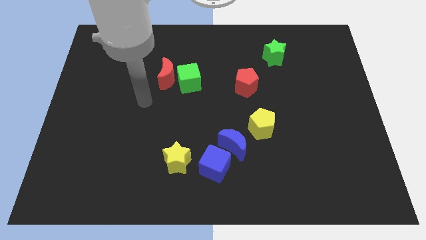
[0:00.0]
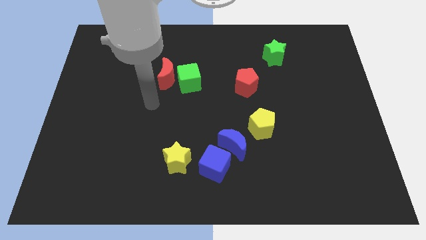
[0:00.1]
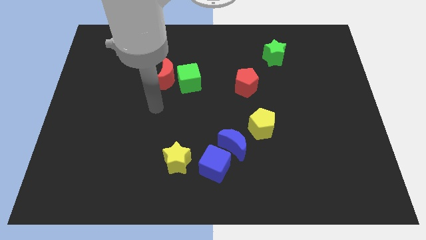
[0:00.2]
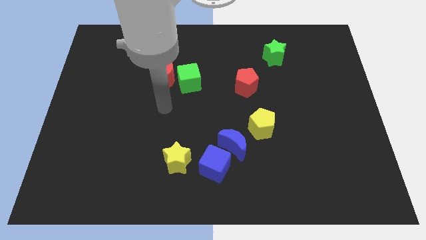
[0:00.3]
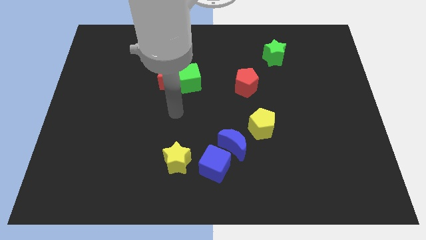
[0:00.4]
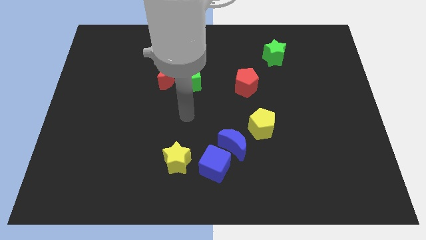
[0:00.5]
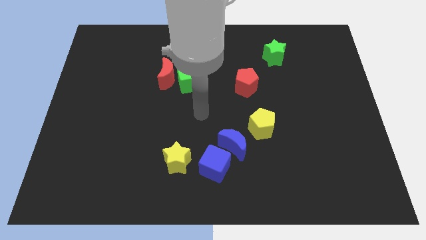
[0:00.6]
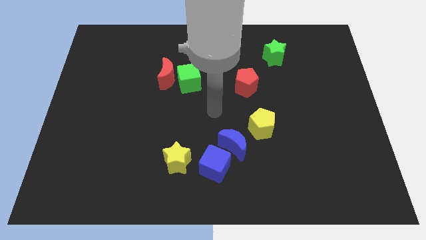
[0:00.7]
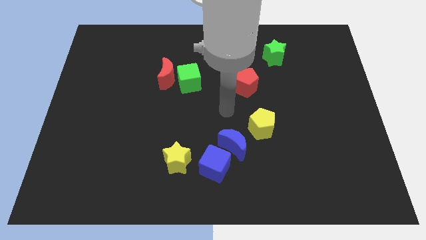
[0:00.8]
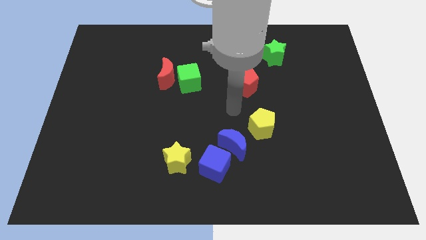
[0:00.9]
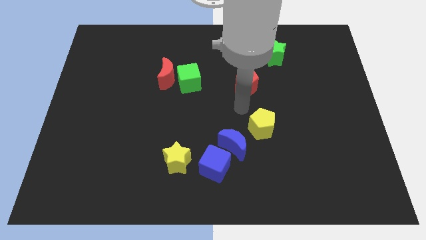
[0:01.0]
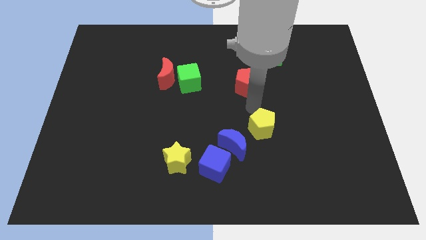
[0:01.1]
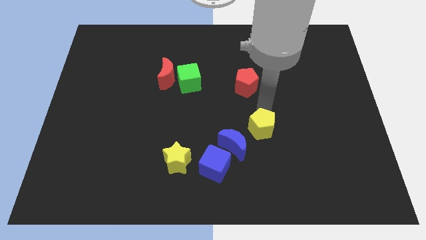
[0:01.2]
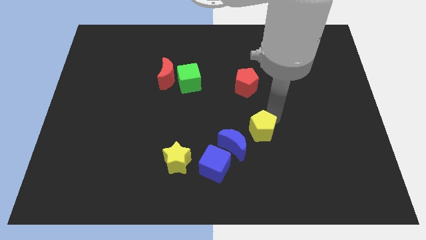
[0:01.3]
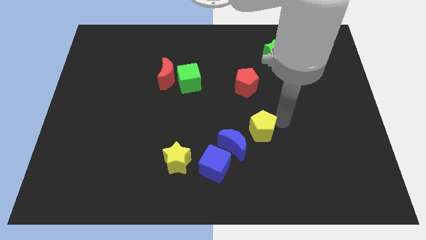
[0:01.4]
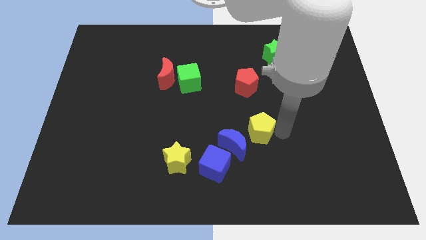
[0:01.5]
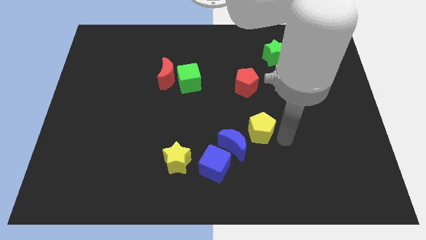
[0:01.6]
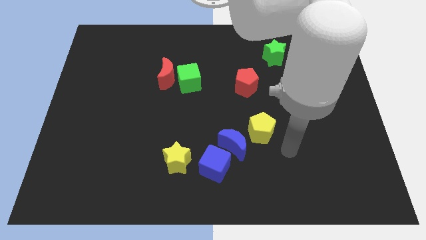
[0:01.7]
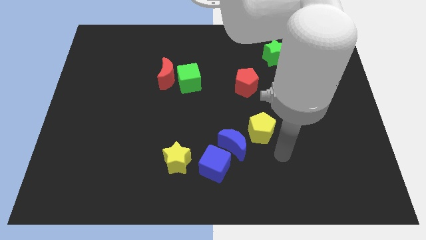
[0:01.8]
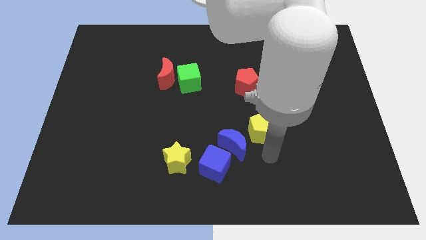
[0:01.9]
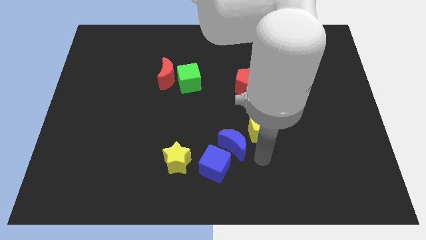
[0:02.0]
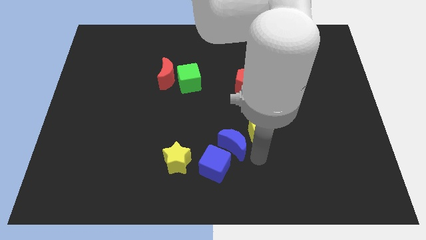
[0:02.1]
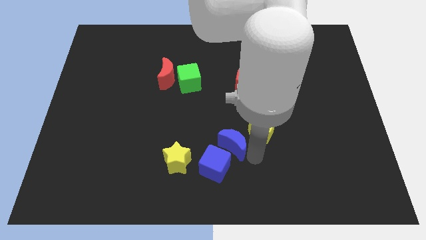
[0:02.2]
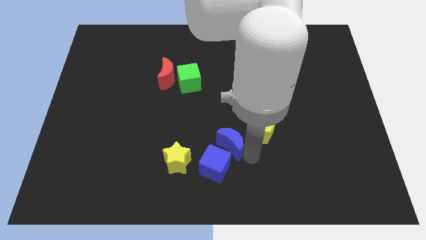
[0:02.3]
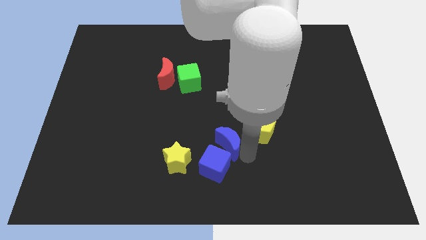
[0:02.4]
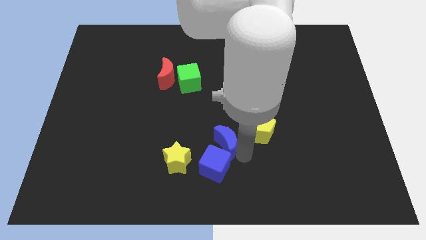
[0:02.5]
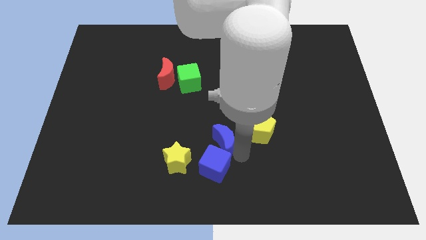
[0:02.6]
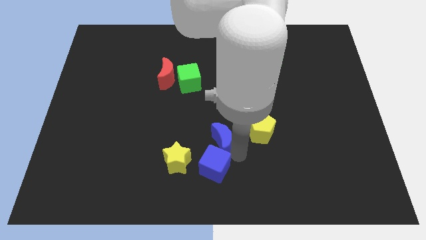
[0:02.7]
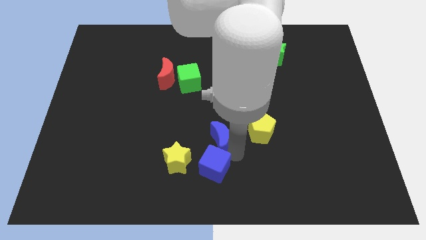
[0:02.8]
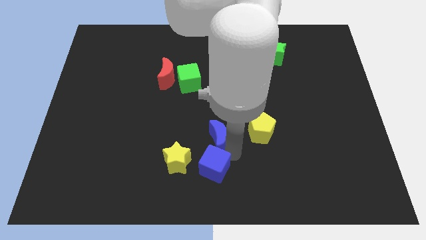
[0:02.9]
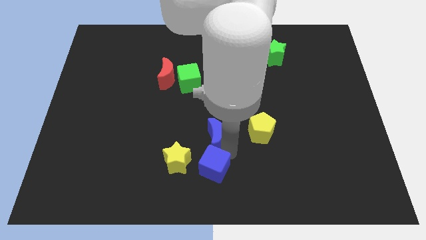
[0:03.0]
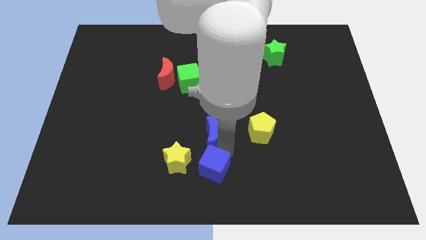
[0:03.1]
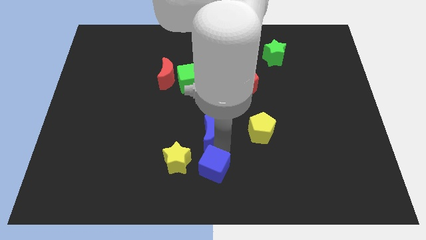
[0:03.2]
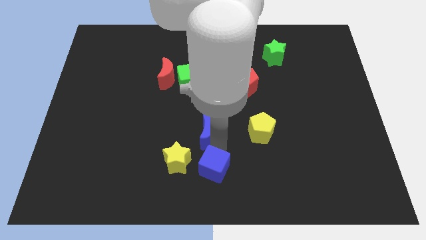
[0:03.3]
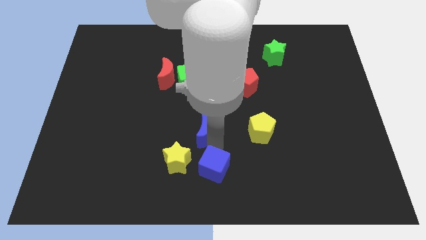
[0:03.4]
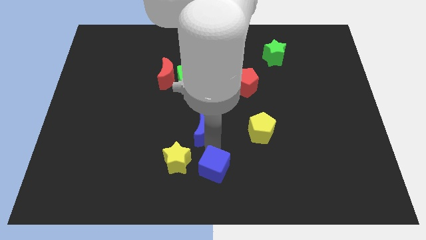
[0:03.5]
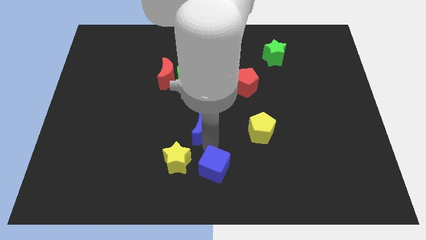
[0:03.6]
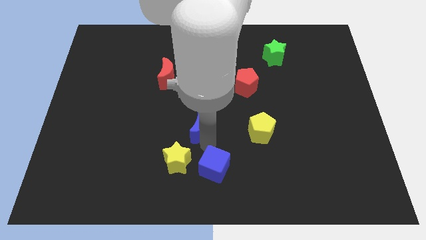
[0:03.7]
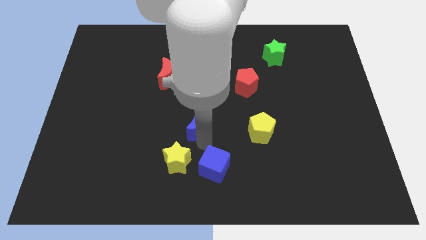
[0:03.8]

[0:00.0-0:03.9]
push the blue moon a bit to the left

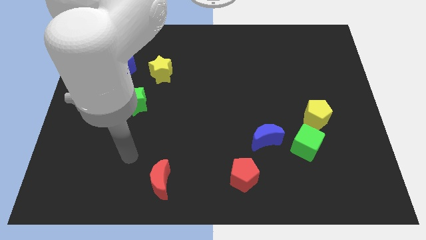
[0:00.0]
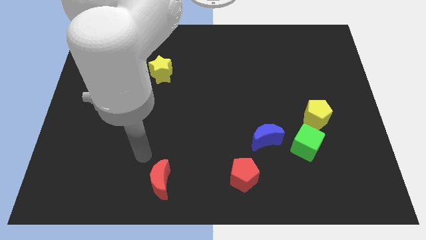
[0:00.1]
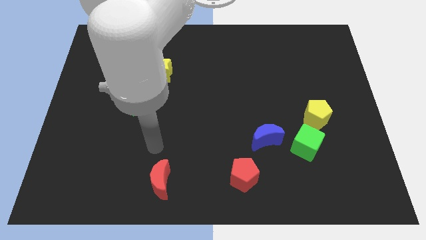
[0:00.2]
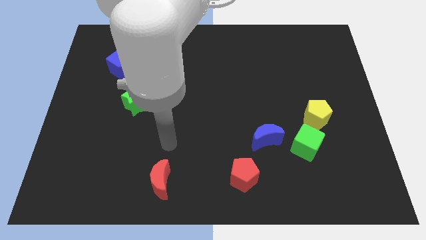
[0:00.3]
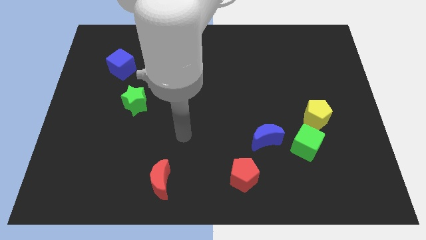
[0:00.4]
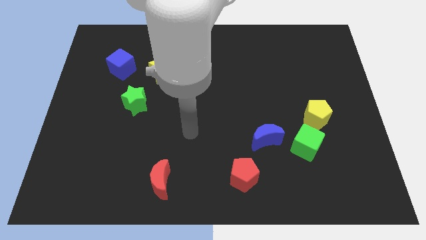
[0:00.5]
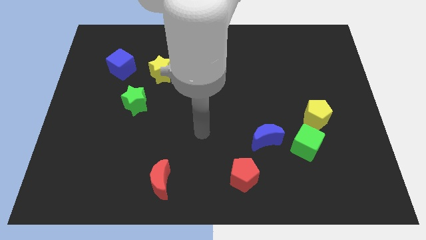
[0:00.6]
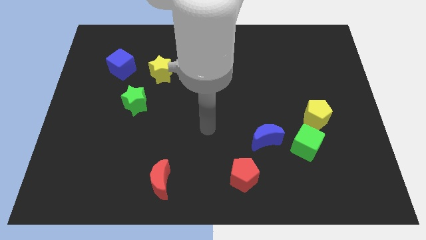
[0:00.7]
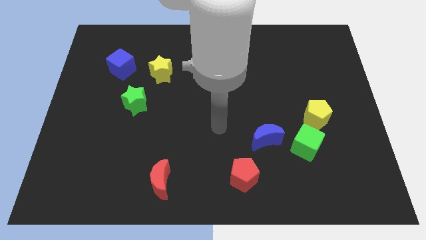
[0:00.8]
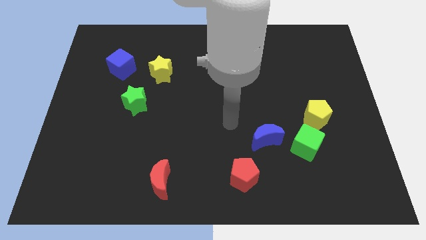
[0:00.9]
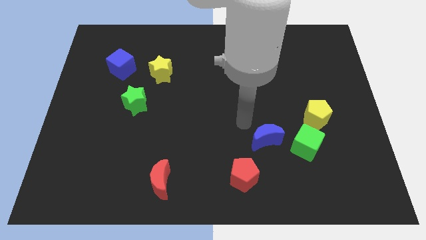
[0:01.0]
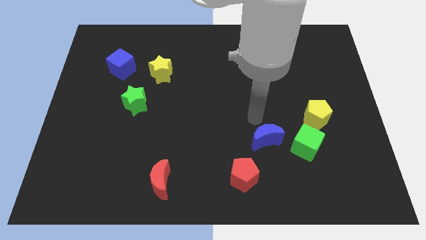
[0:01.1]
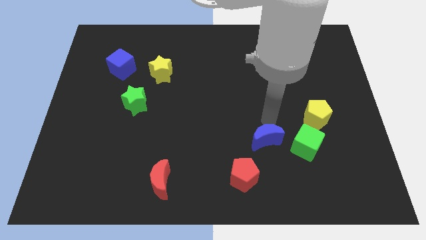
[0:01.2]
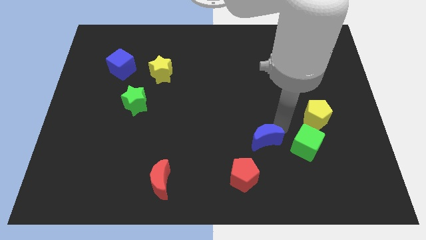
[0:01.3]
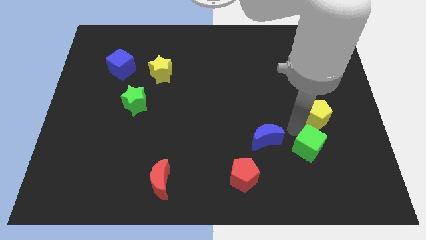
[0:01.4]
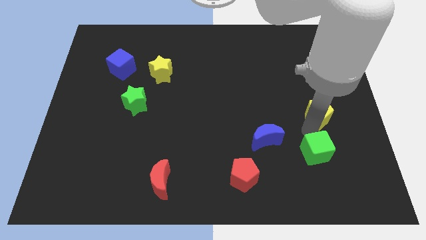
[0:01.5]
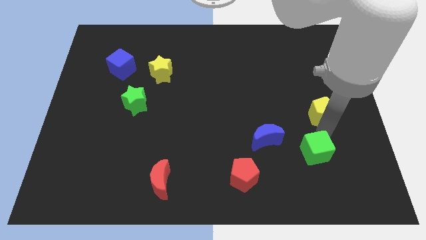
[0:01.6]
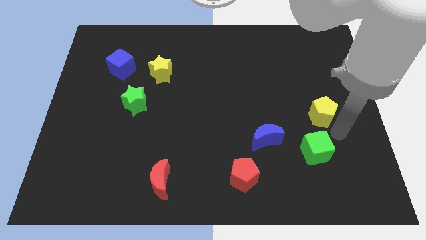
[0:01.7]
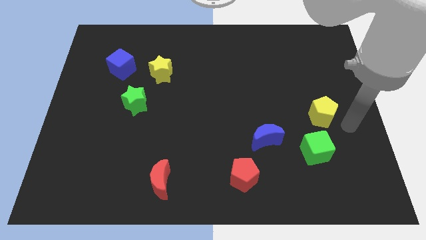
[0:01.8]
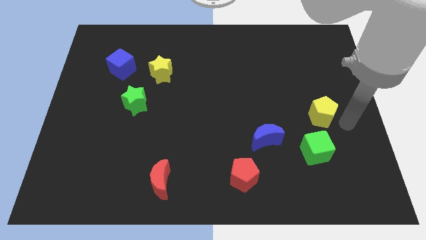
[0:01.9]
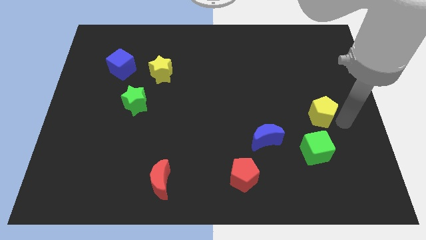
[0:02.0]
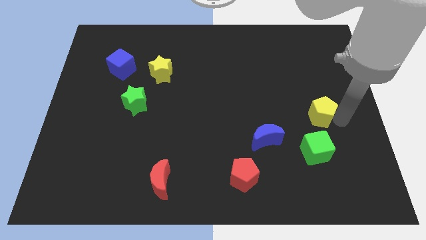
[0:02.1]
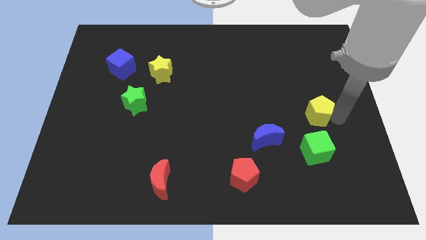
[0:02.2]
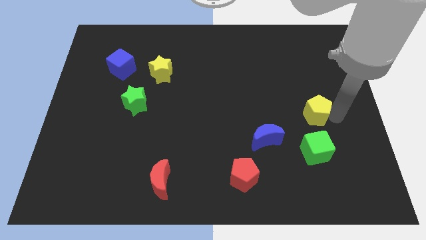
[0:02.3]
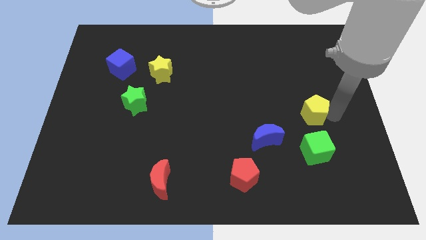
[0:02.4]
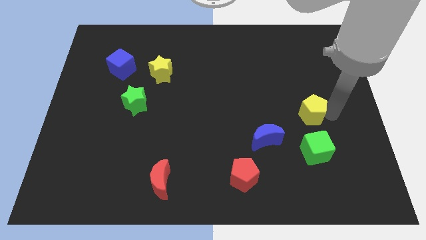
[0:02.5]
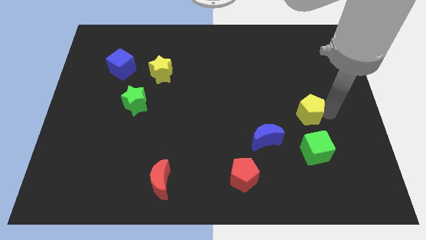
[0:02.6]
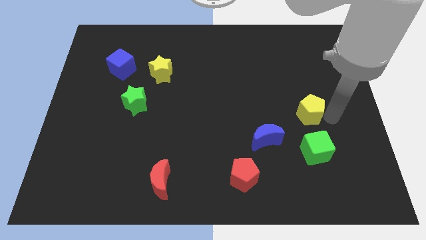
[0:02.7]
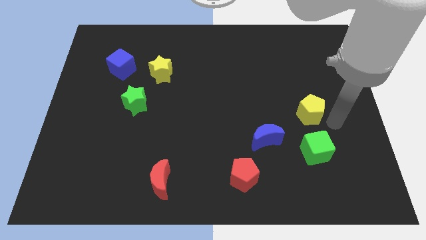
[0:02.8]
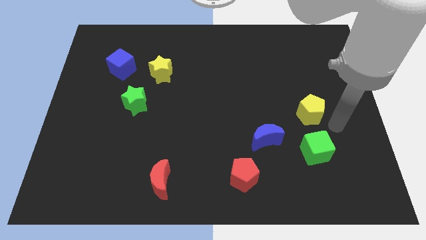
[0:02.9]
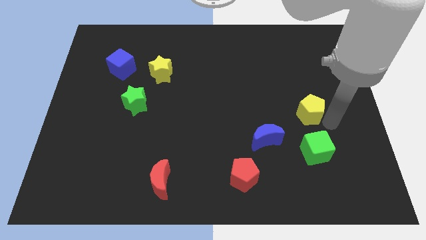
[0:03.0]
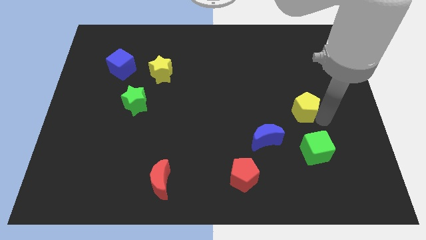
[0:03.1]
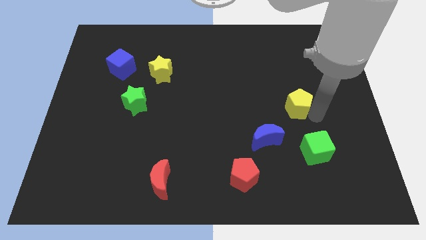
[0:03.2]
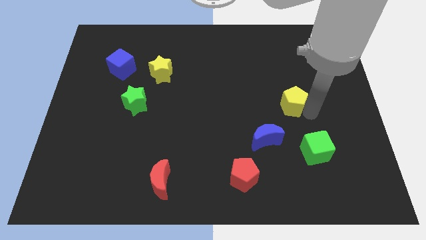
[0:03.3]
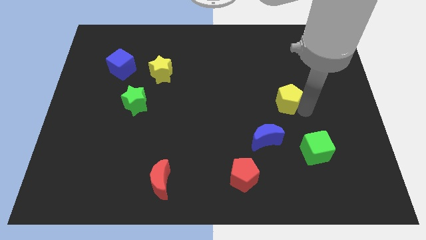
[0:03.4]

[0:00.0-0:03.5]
push the yellow pentagon slightly upwards and then left

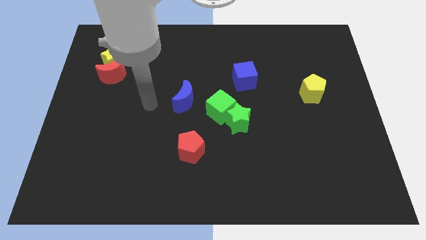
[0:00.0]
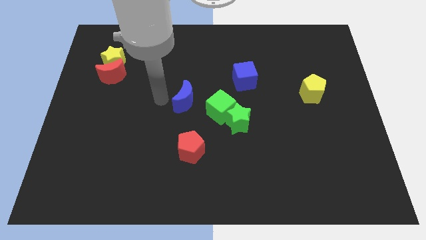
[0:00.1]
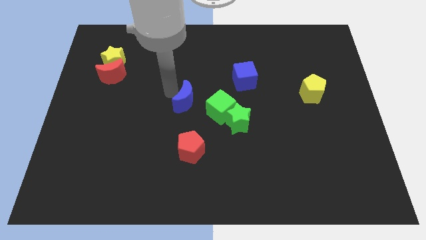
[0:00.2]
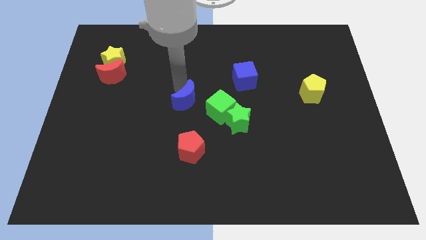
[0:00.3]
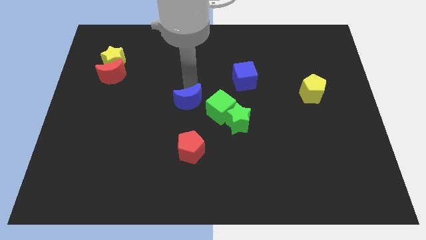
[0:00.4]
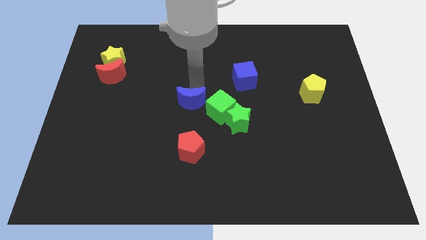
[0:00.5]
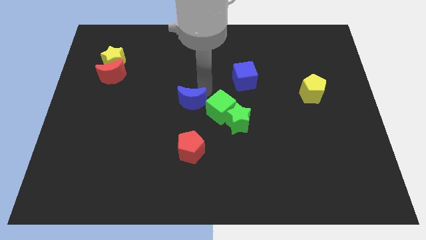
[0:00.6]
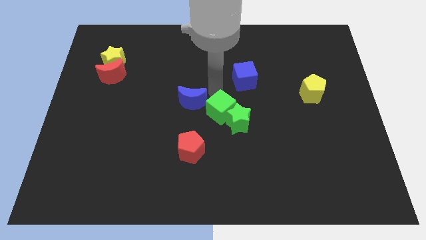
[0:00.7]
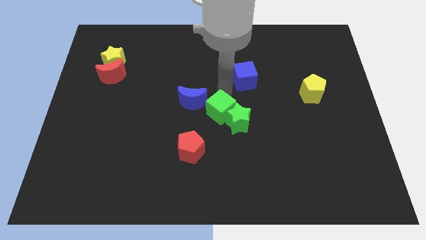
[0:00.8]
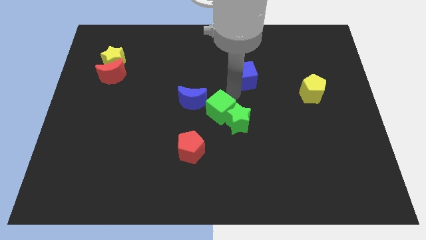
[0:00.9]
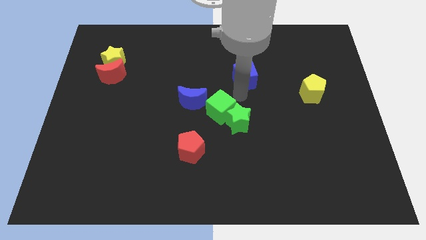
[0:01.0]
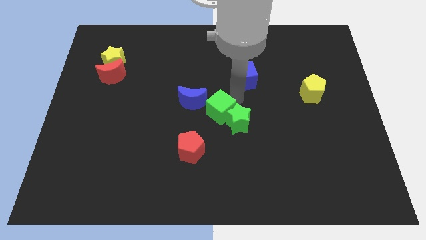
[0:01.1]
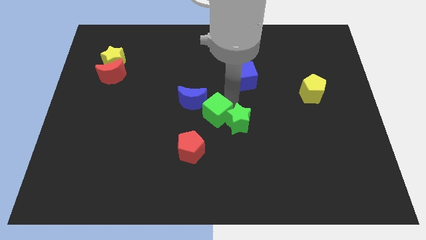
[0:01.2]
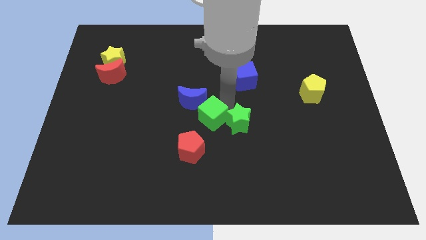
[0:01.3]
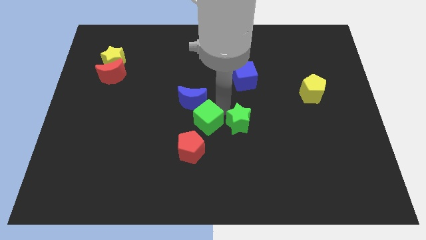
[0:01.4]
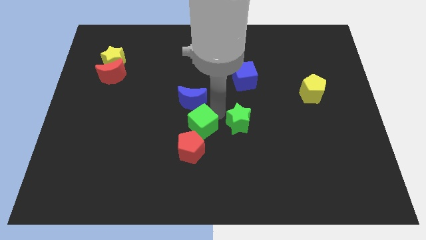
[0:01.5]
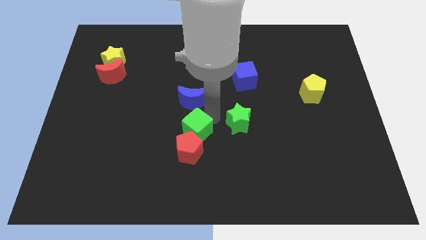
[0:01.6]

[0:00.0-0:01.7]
move the green cube slightly down and then to the left
